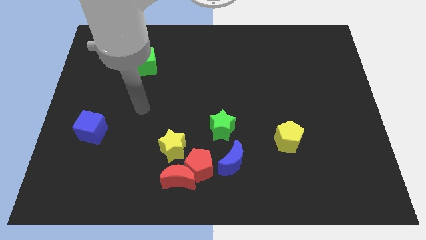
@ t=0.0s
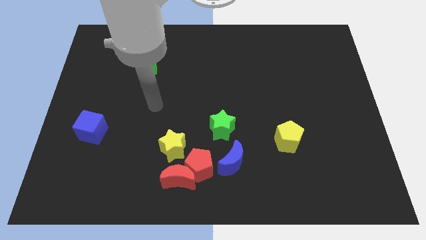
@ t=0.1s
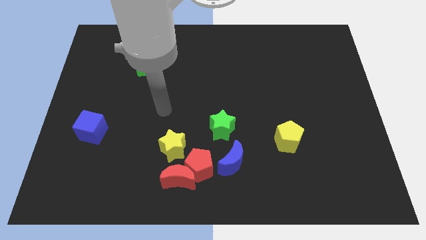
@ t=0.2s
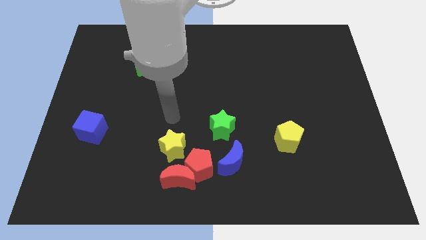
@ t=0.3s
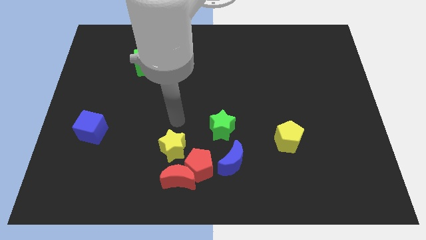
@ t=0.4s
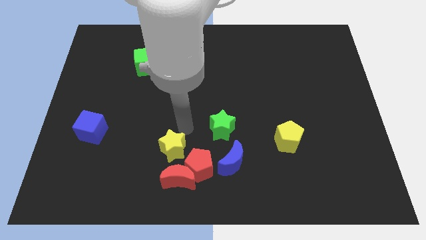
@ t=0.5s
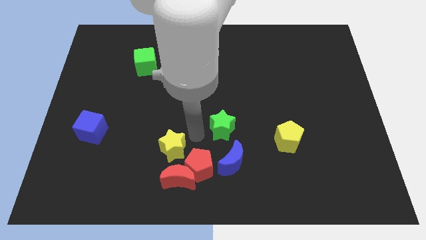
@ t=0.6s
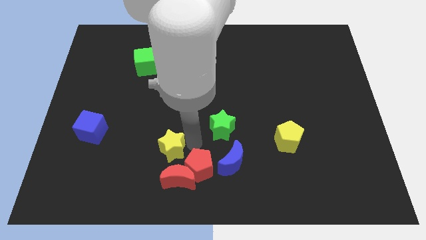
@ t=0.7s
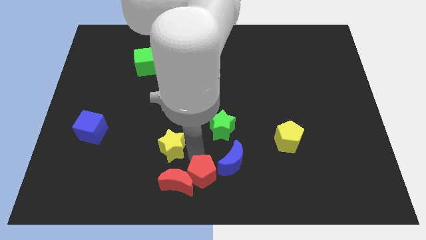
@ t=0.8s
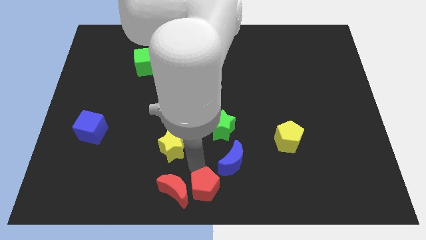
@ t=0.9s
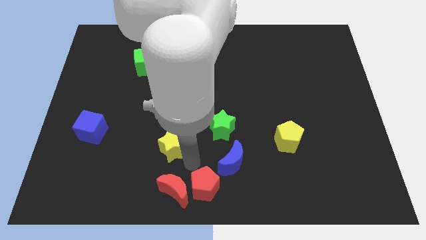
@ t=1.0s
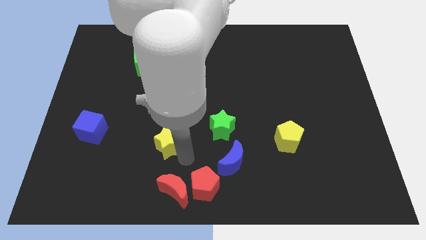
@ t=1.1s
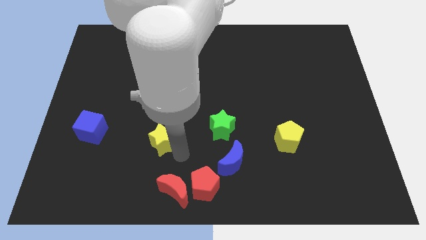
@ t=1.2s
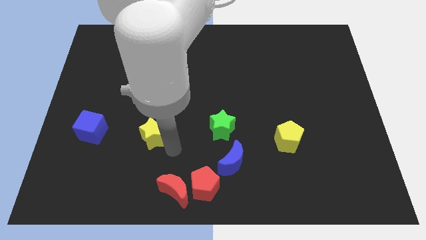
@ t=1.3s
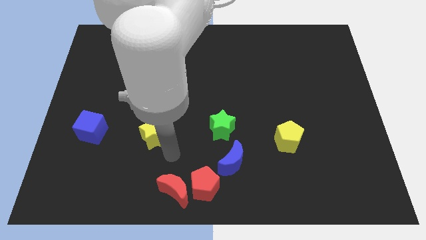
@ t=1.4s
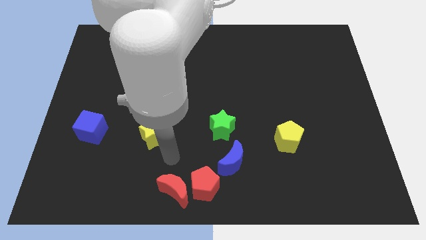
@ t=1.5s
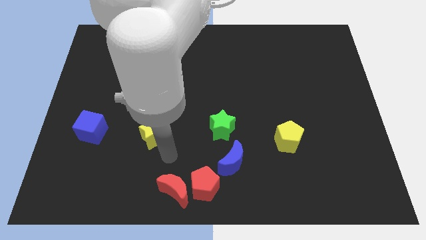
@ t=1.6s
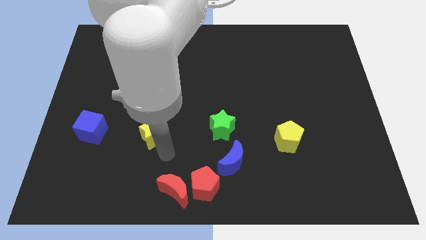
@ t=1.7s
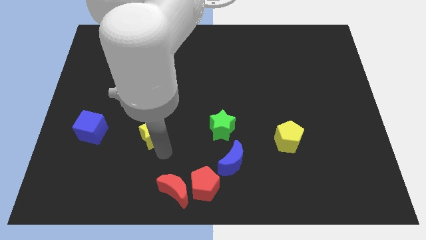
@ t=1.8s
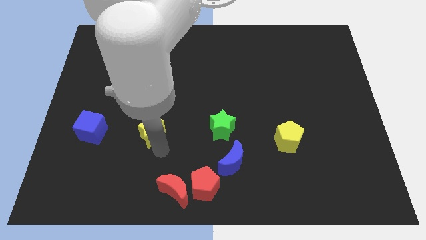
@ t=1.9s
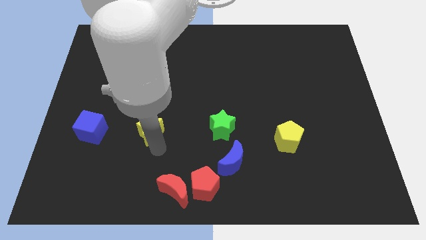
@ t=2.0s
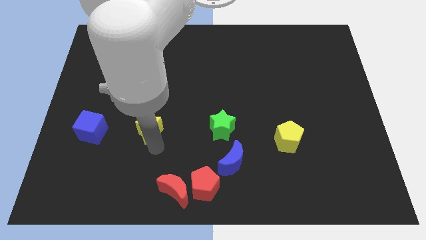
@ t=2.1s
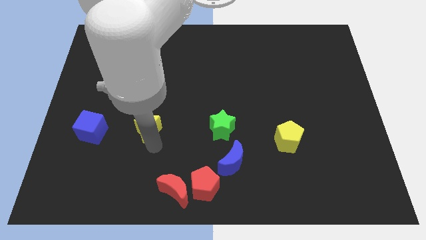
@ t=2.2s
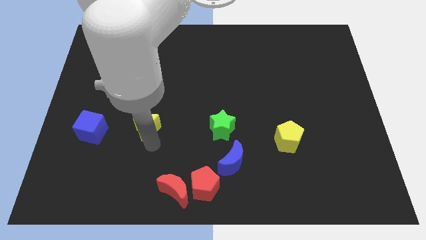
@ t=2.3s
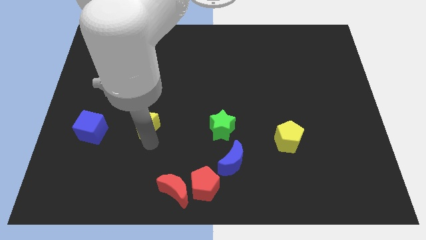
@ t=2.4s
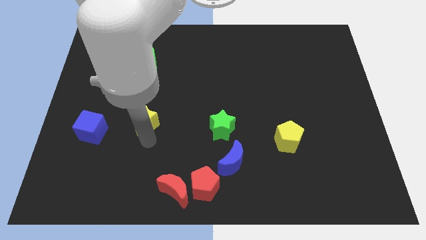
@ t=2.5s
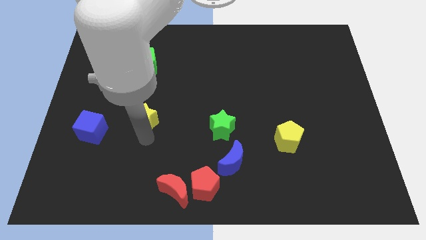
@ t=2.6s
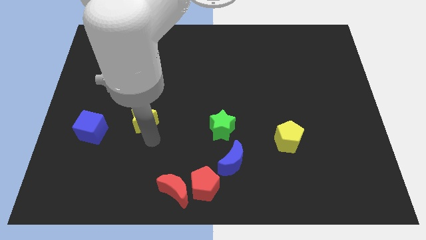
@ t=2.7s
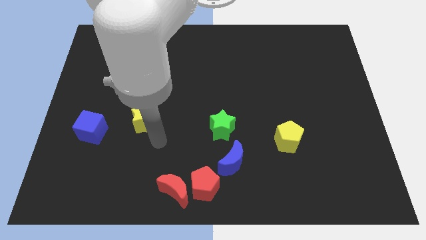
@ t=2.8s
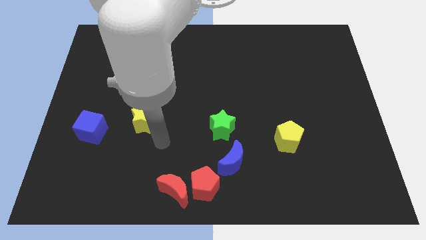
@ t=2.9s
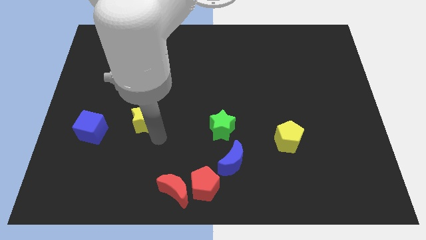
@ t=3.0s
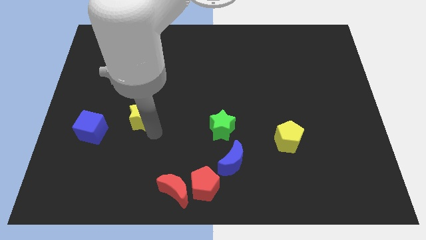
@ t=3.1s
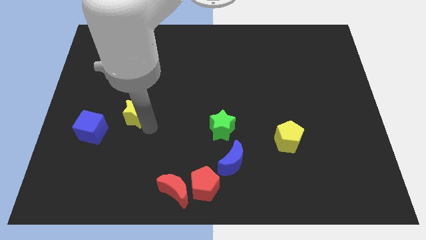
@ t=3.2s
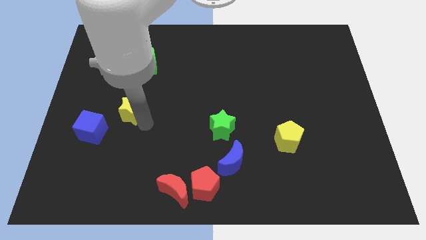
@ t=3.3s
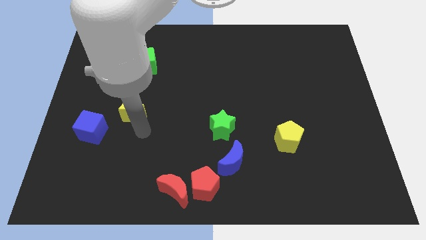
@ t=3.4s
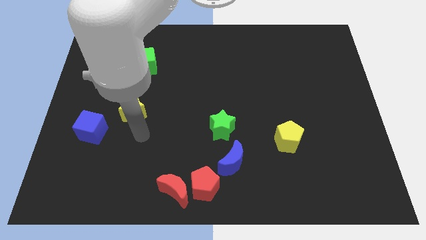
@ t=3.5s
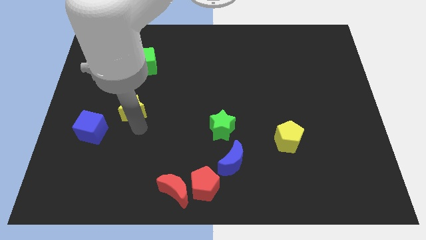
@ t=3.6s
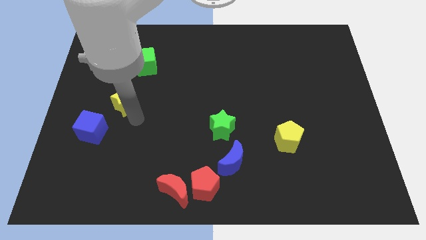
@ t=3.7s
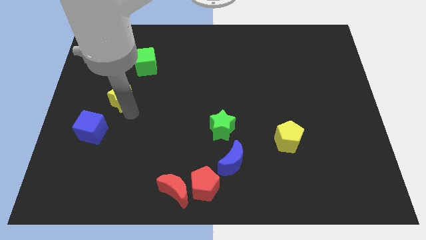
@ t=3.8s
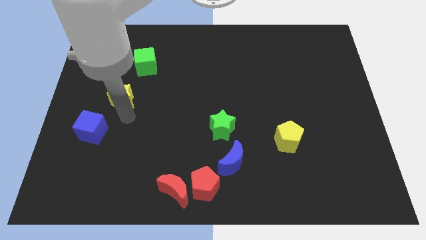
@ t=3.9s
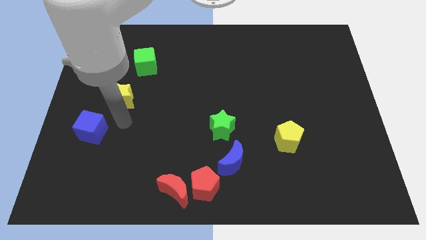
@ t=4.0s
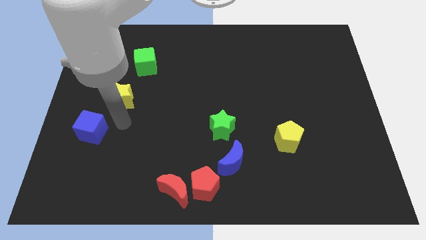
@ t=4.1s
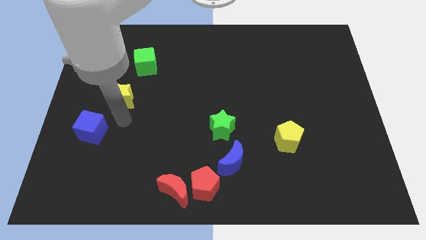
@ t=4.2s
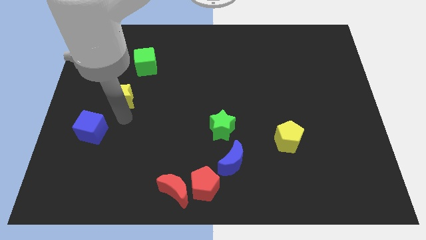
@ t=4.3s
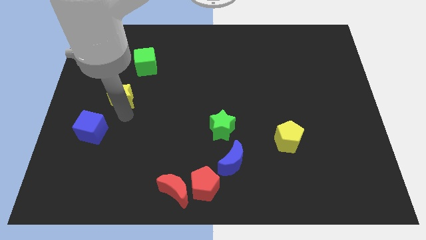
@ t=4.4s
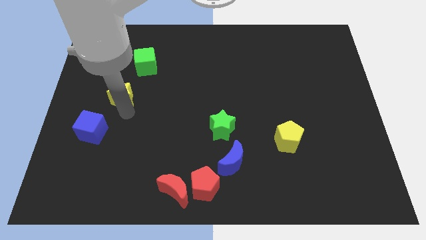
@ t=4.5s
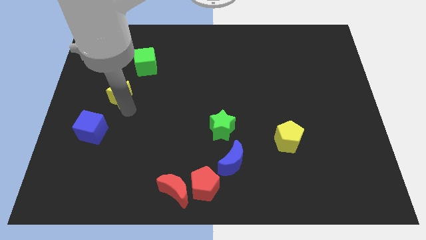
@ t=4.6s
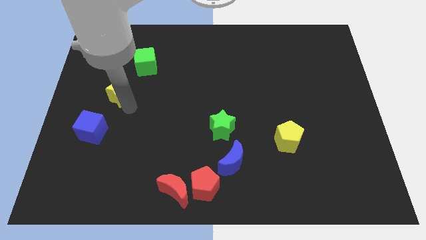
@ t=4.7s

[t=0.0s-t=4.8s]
slide the yellow star to the bottom left of the green cube

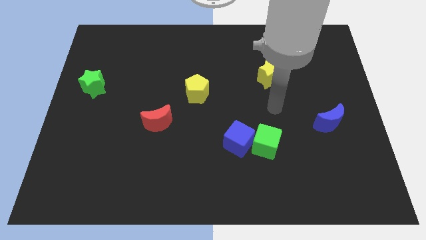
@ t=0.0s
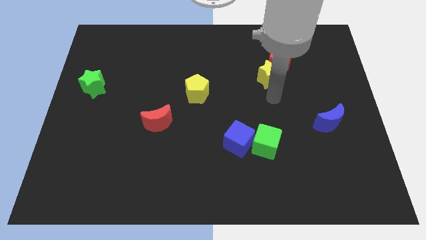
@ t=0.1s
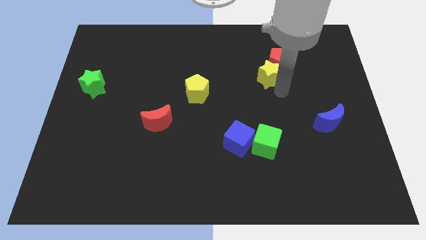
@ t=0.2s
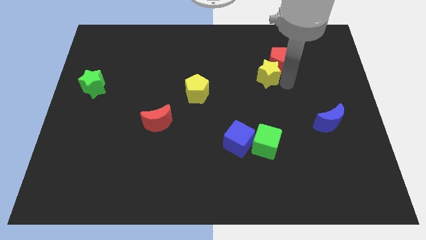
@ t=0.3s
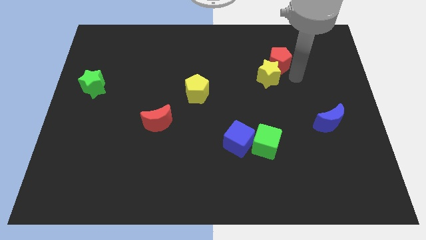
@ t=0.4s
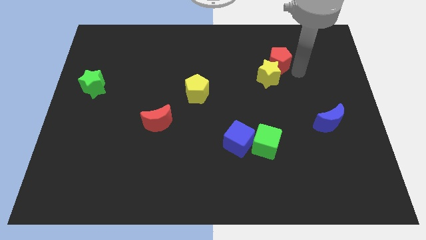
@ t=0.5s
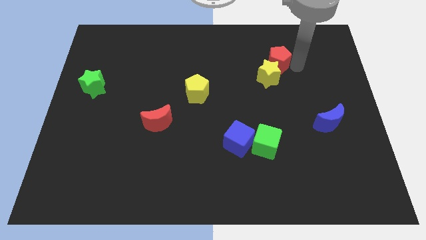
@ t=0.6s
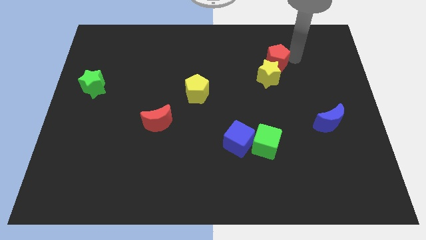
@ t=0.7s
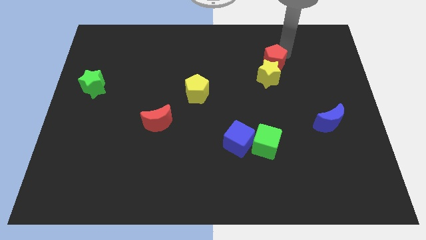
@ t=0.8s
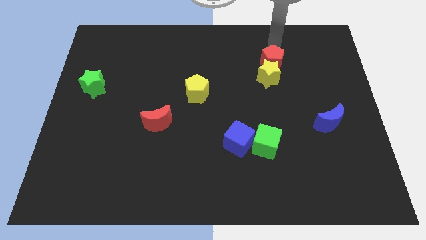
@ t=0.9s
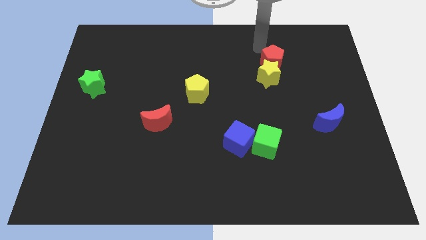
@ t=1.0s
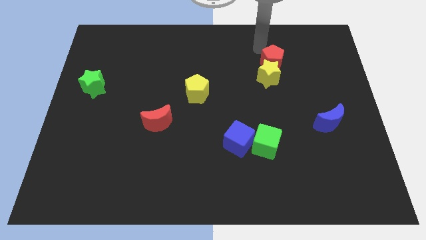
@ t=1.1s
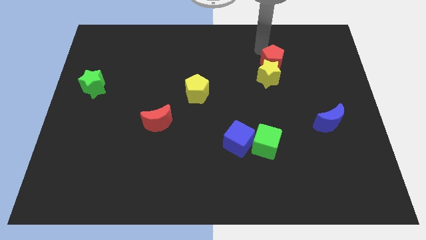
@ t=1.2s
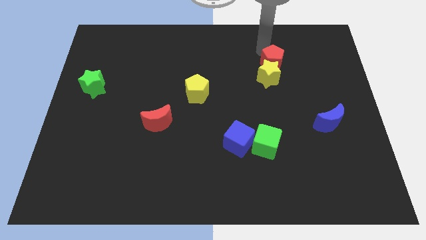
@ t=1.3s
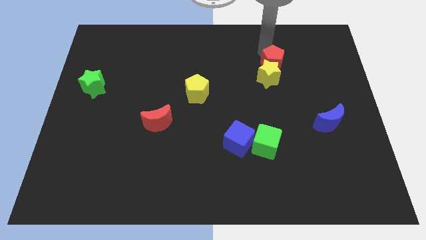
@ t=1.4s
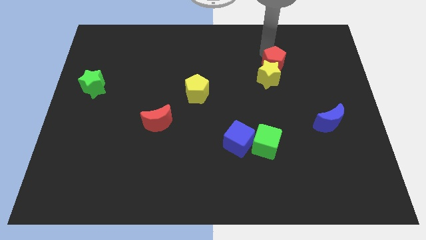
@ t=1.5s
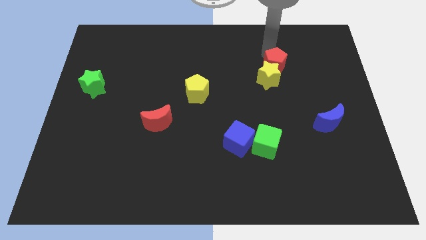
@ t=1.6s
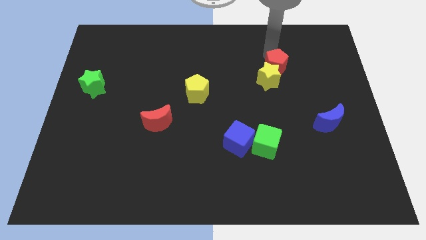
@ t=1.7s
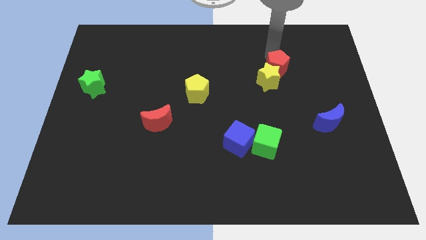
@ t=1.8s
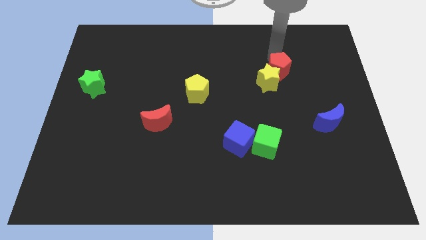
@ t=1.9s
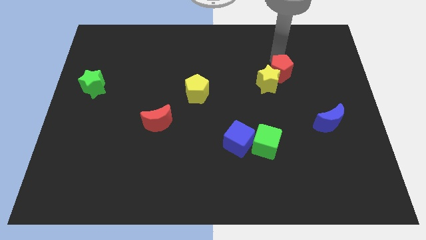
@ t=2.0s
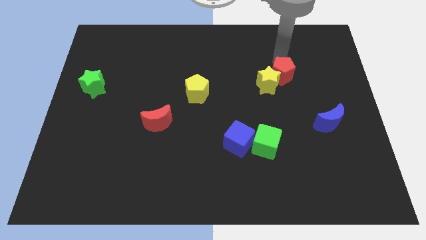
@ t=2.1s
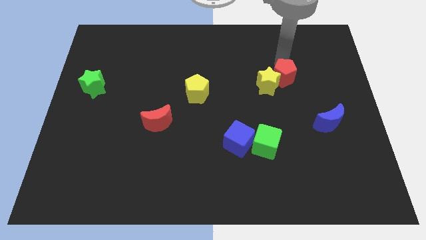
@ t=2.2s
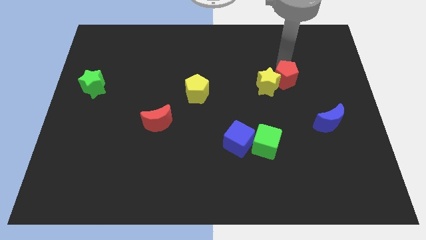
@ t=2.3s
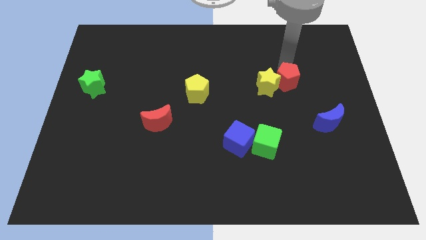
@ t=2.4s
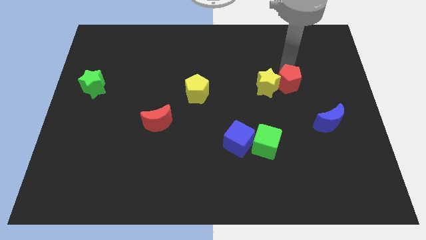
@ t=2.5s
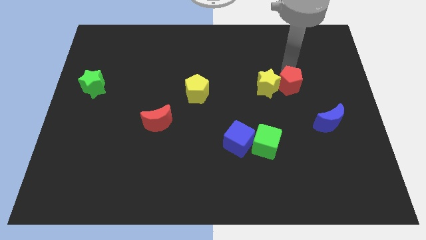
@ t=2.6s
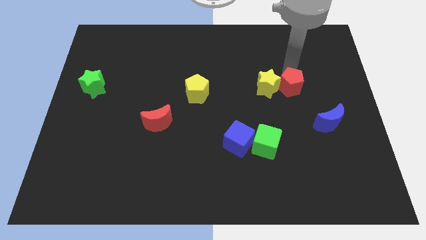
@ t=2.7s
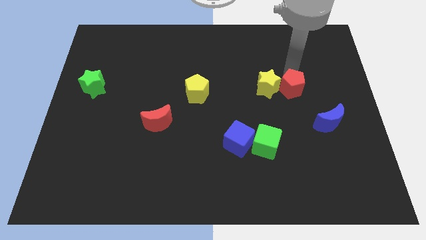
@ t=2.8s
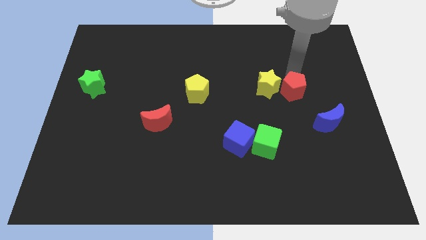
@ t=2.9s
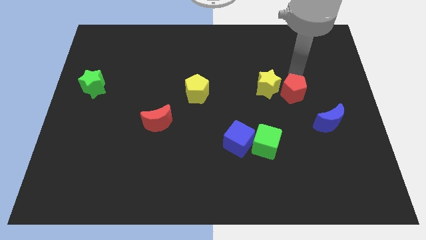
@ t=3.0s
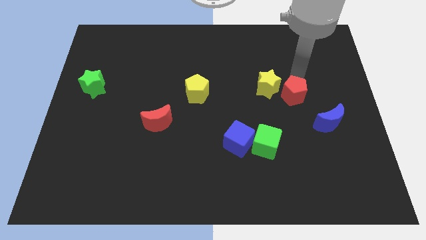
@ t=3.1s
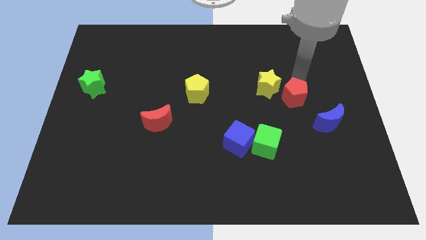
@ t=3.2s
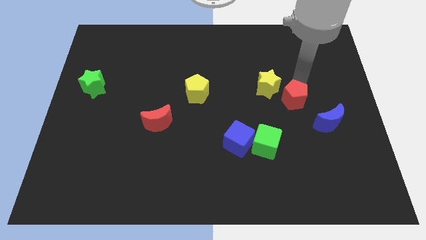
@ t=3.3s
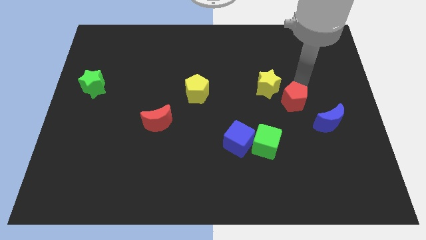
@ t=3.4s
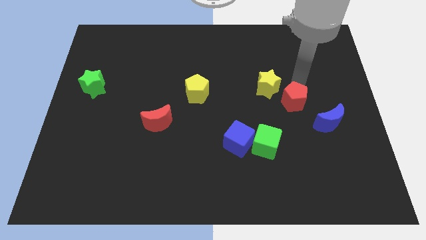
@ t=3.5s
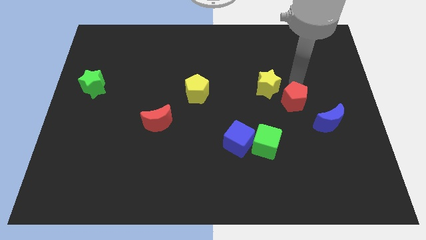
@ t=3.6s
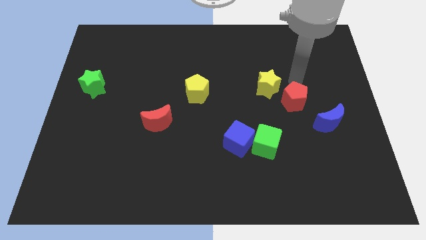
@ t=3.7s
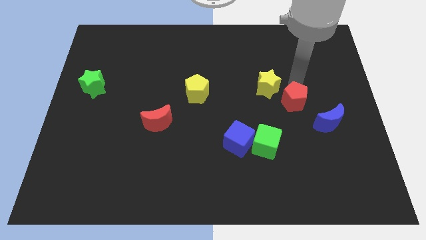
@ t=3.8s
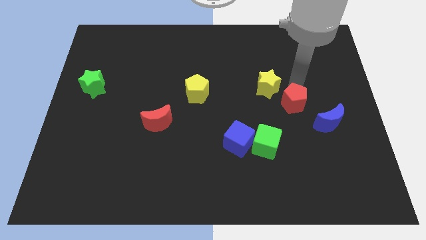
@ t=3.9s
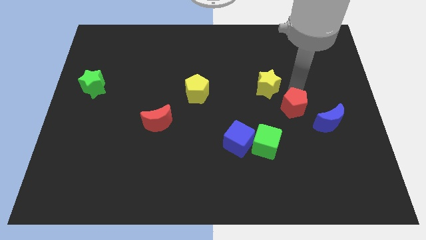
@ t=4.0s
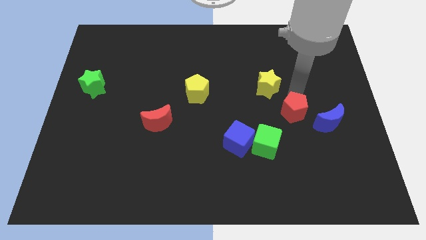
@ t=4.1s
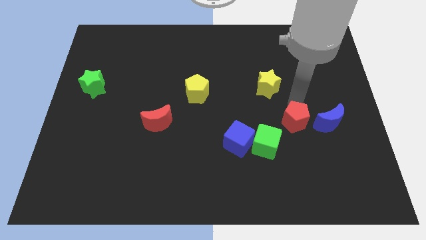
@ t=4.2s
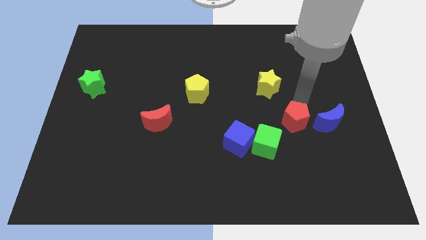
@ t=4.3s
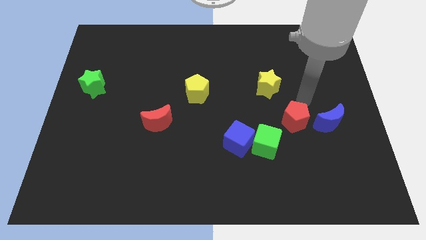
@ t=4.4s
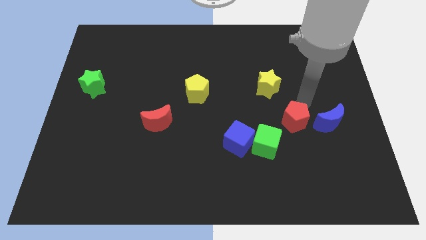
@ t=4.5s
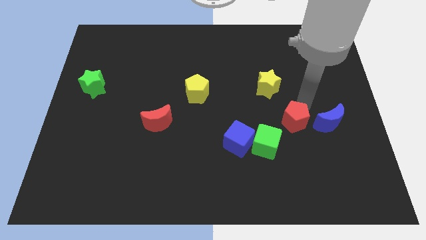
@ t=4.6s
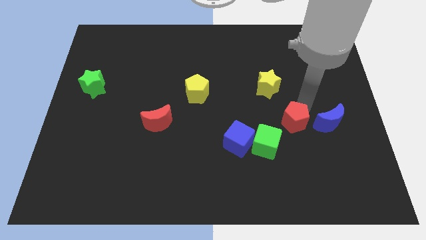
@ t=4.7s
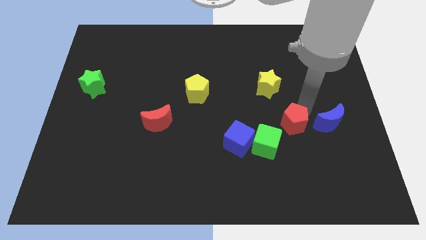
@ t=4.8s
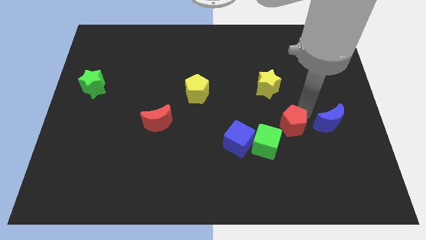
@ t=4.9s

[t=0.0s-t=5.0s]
move the red pentagon to the right of the blue cube
